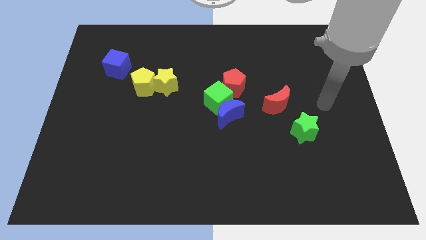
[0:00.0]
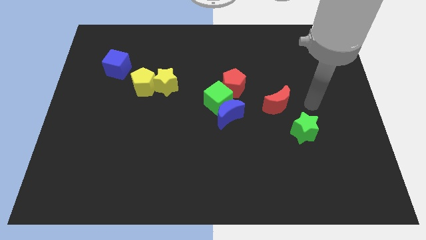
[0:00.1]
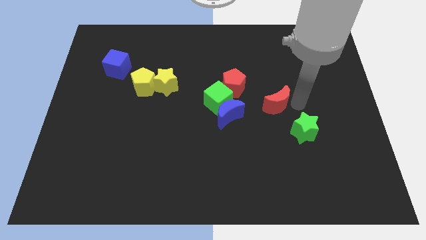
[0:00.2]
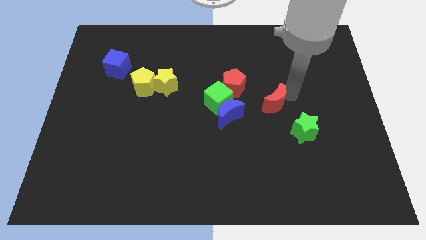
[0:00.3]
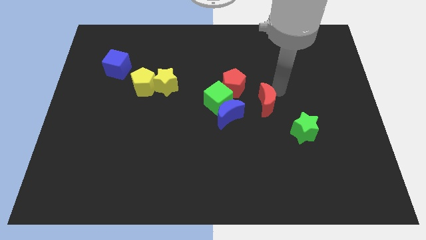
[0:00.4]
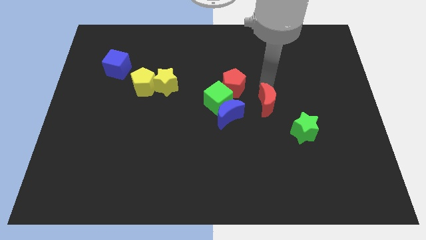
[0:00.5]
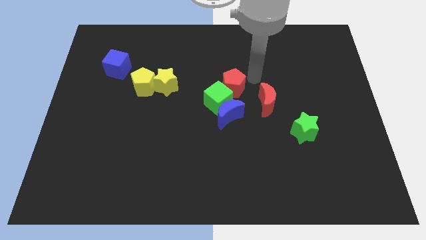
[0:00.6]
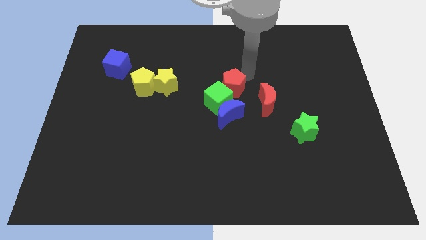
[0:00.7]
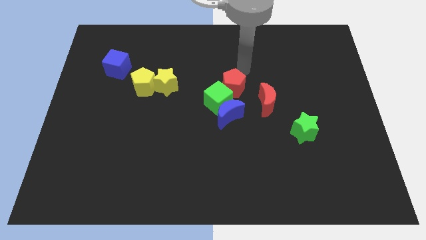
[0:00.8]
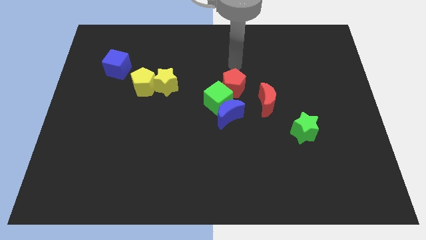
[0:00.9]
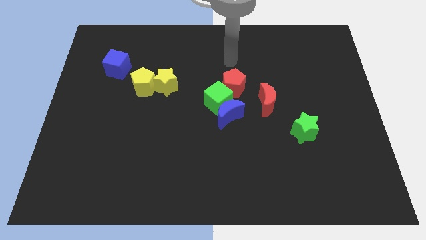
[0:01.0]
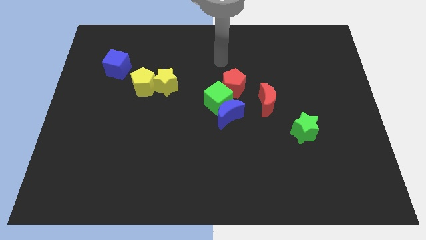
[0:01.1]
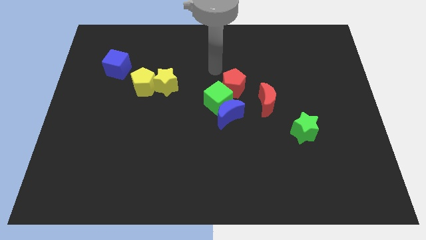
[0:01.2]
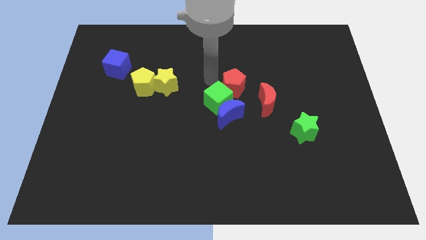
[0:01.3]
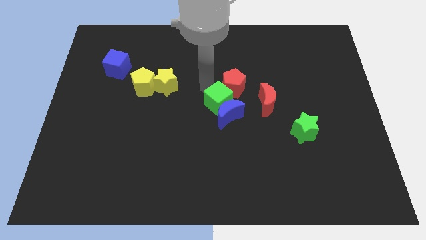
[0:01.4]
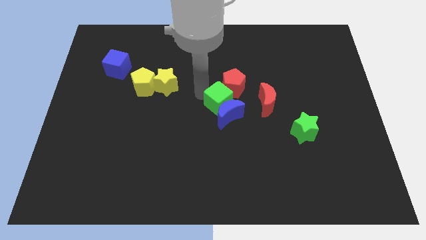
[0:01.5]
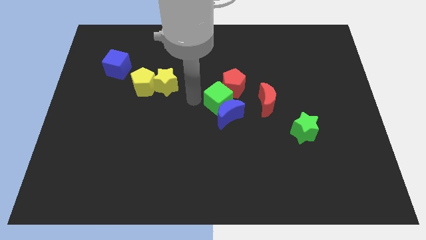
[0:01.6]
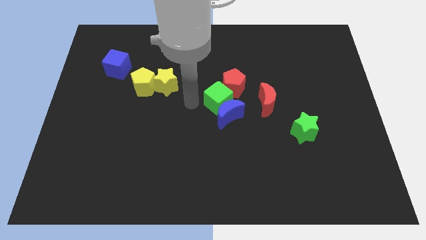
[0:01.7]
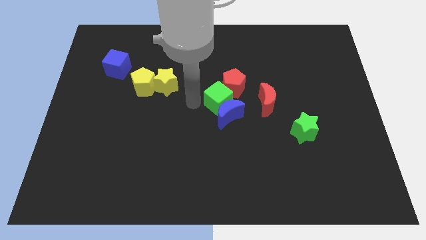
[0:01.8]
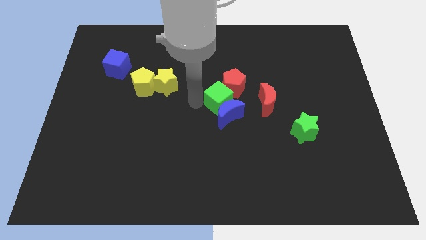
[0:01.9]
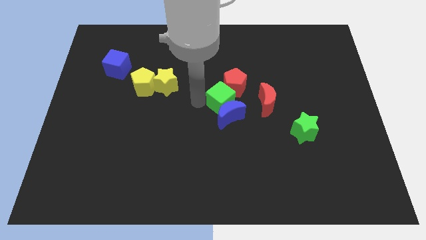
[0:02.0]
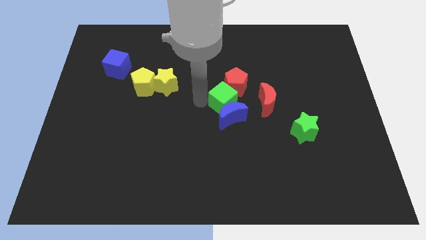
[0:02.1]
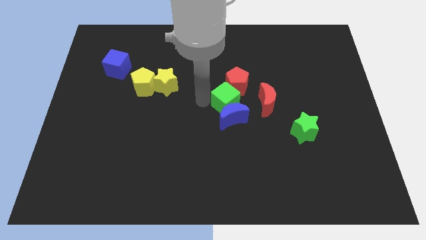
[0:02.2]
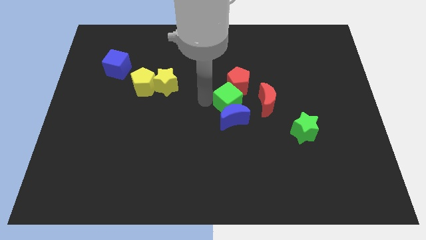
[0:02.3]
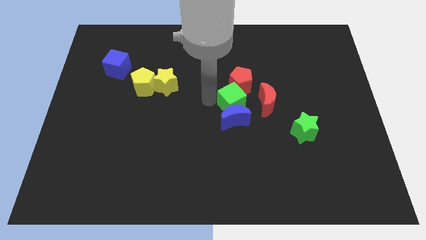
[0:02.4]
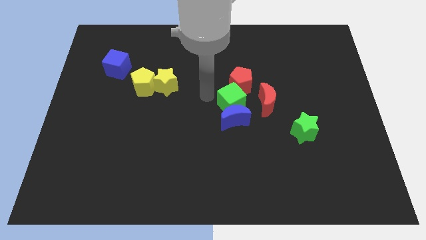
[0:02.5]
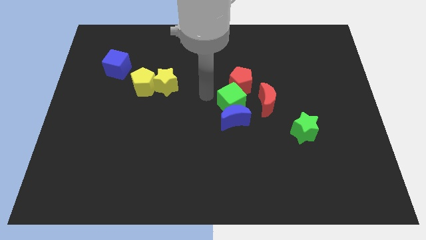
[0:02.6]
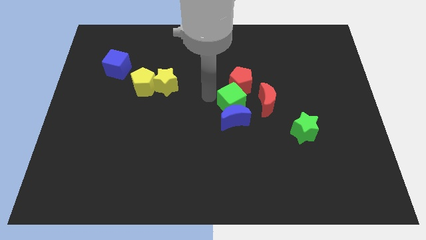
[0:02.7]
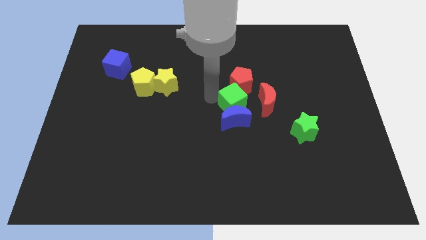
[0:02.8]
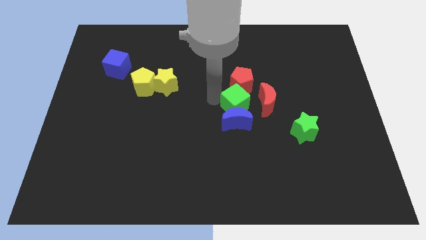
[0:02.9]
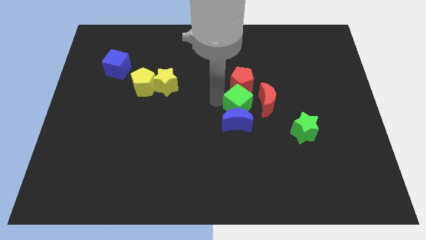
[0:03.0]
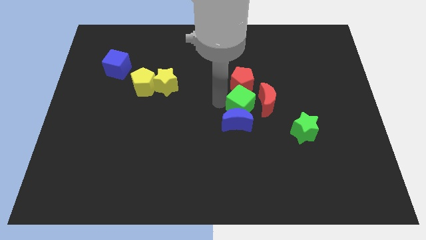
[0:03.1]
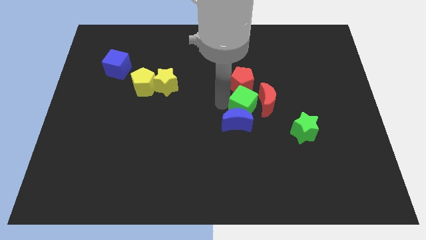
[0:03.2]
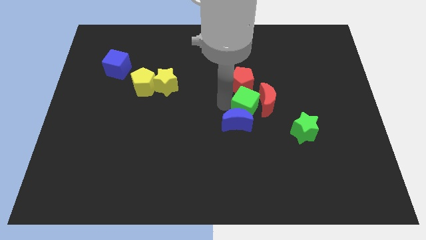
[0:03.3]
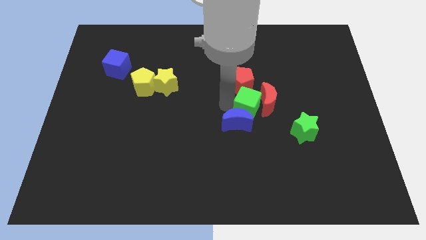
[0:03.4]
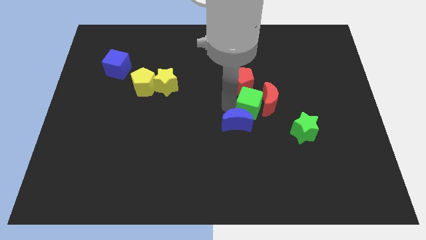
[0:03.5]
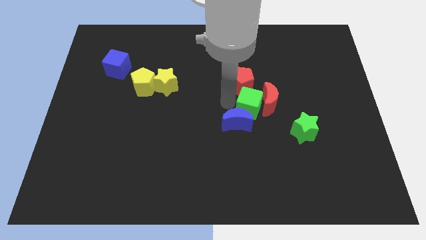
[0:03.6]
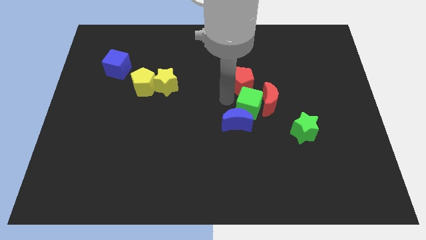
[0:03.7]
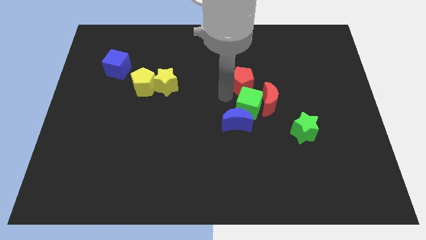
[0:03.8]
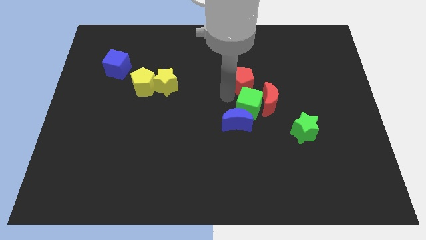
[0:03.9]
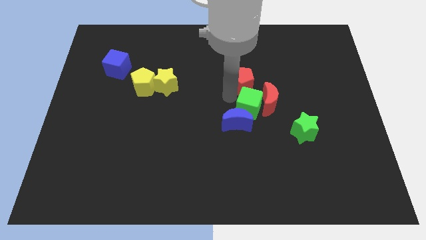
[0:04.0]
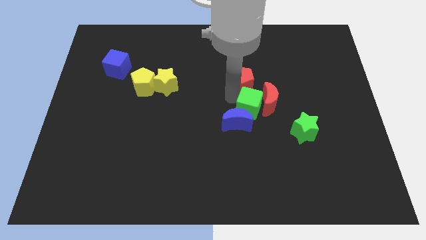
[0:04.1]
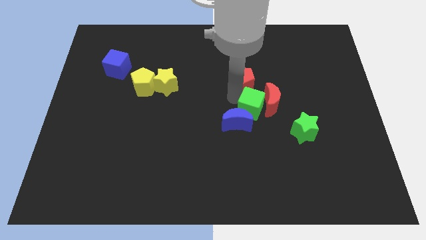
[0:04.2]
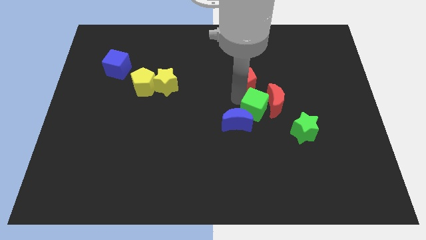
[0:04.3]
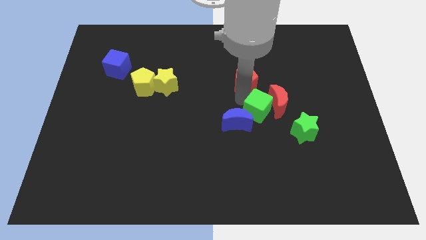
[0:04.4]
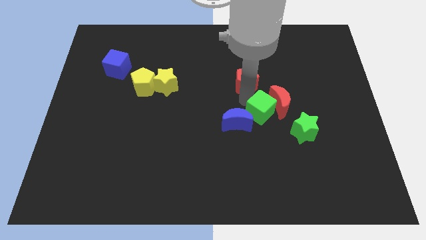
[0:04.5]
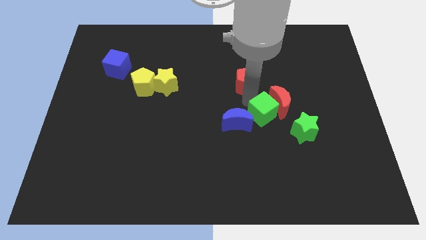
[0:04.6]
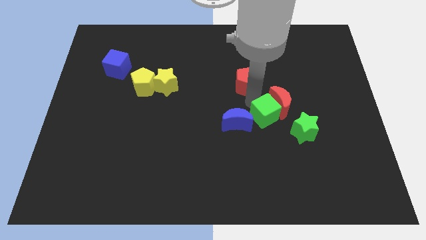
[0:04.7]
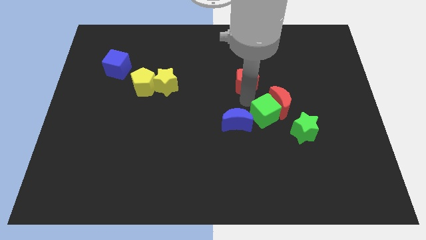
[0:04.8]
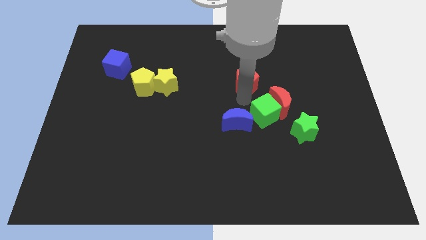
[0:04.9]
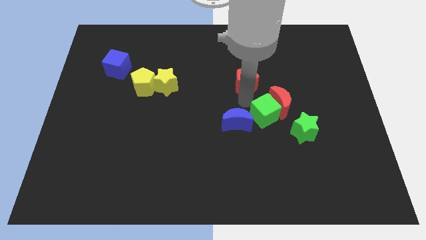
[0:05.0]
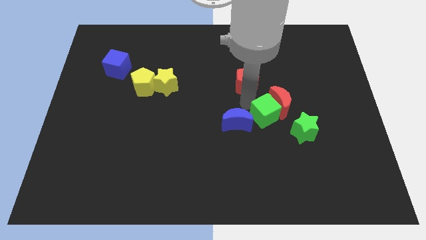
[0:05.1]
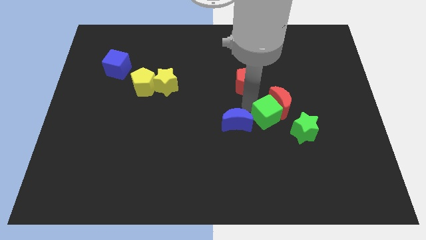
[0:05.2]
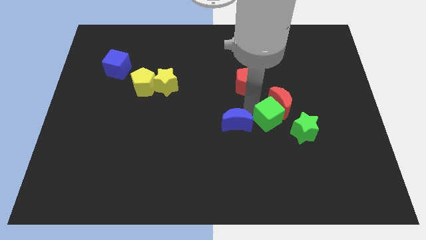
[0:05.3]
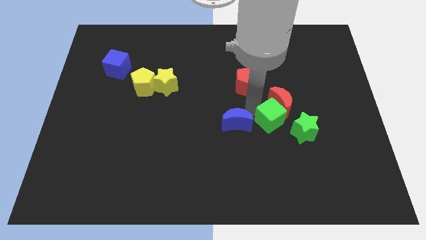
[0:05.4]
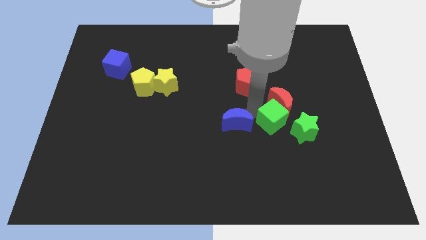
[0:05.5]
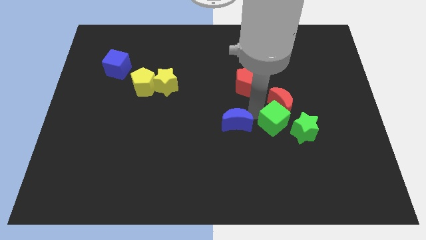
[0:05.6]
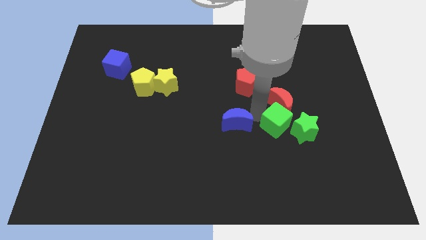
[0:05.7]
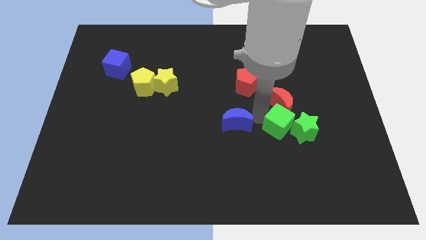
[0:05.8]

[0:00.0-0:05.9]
put the green cube to the green star

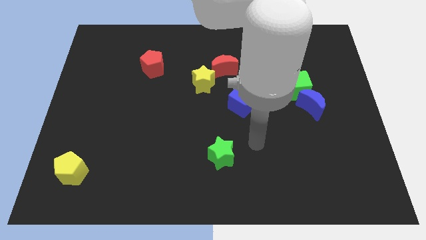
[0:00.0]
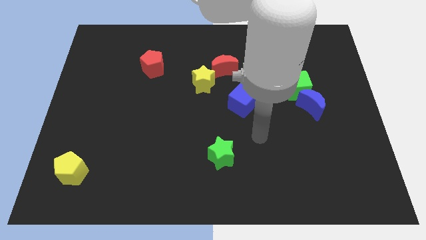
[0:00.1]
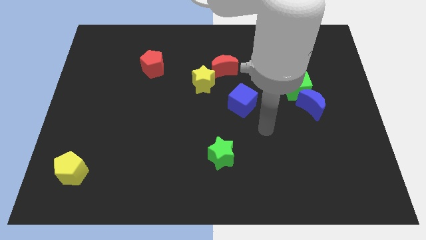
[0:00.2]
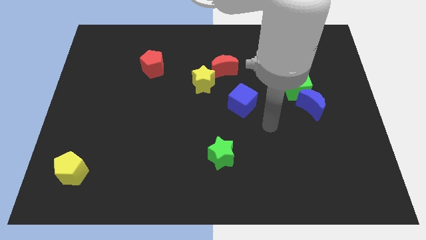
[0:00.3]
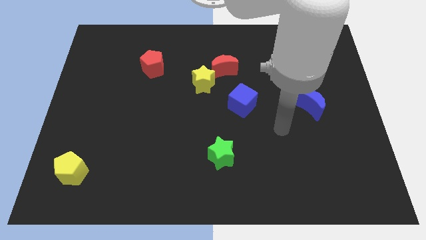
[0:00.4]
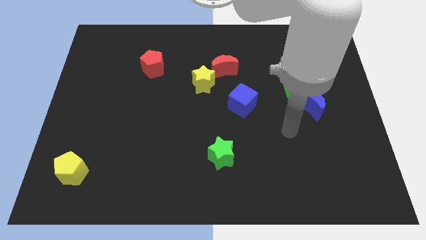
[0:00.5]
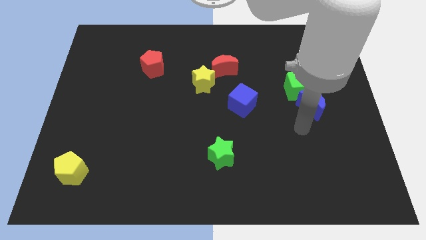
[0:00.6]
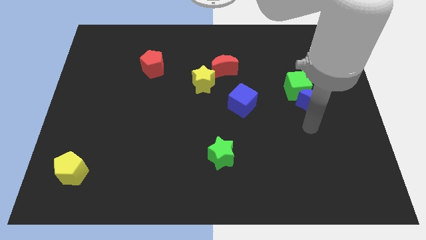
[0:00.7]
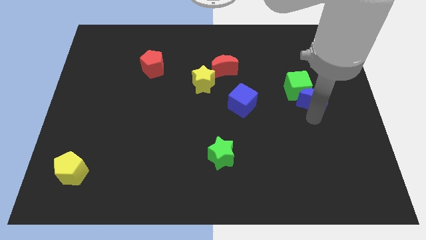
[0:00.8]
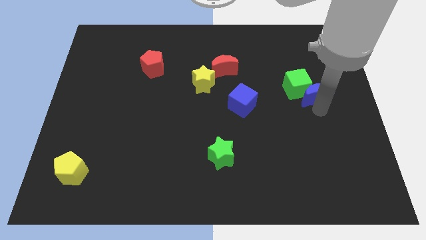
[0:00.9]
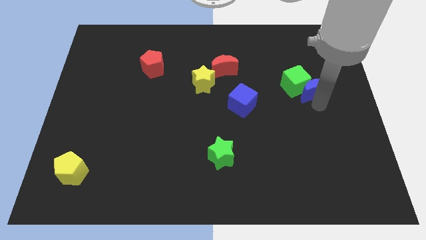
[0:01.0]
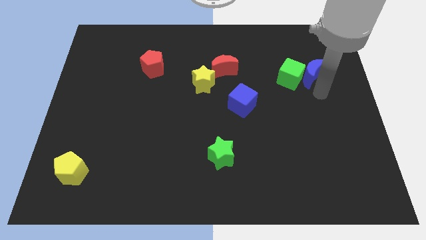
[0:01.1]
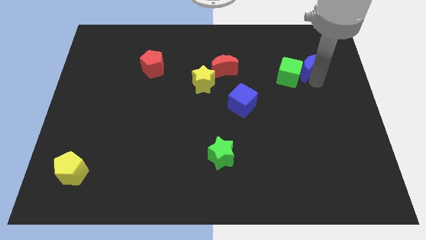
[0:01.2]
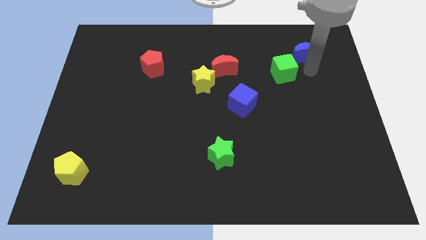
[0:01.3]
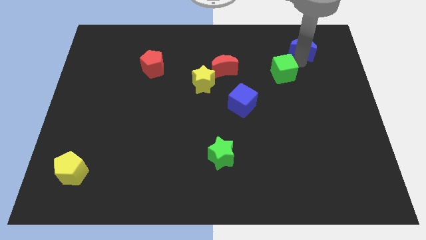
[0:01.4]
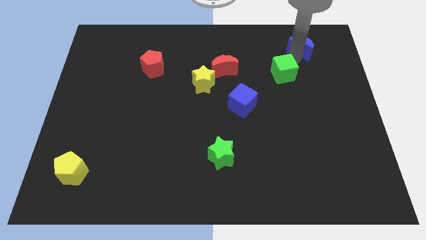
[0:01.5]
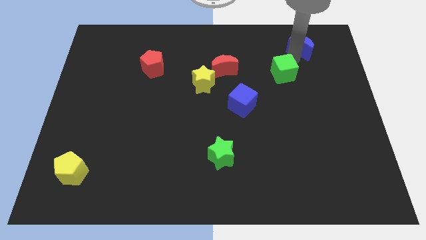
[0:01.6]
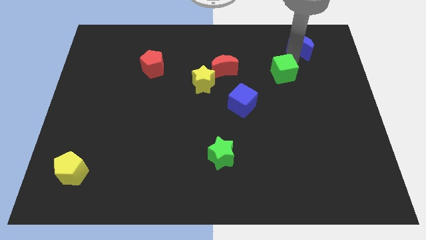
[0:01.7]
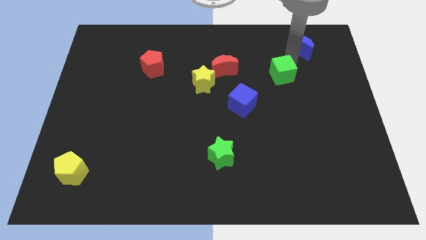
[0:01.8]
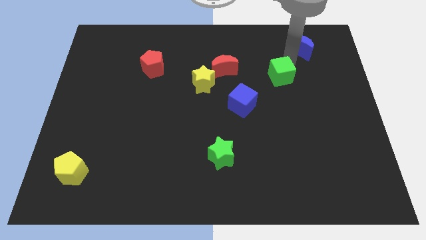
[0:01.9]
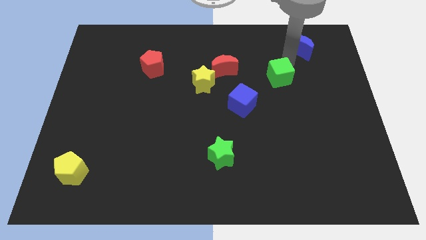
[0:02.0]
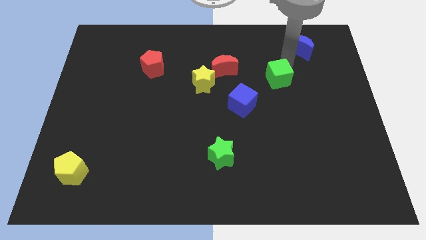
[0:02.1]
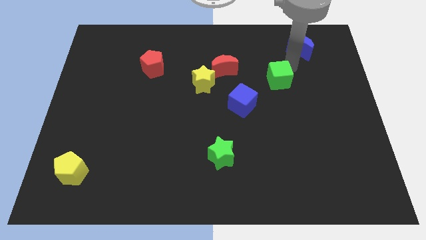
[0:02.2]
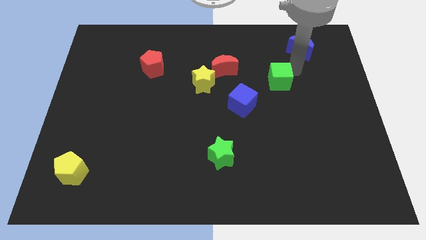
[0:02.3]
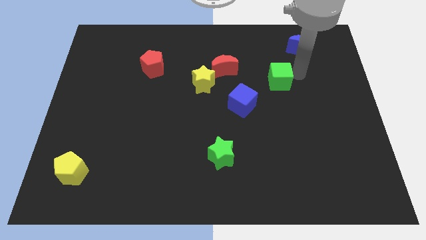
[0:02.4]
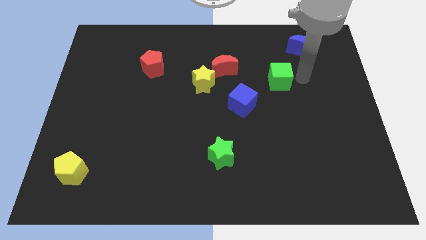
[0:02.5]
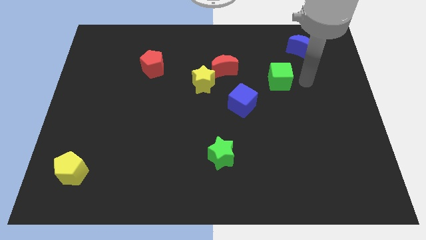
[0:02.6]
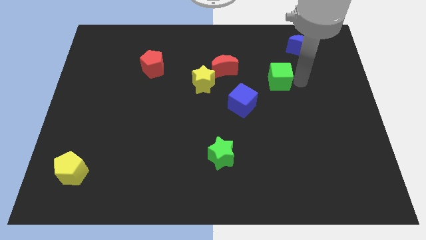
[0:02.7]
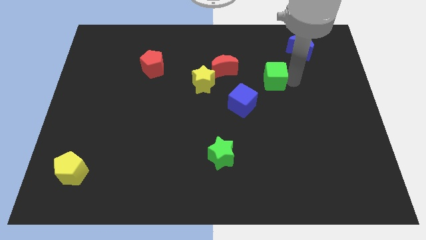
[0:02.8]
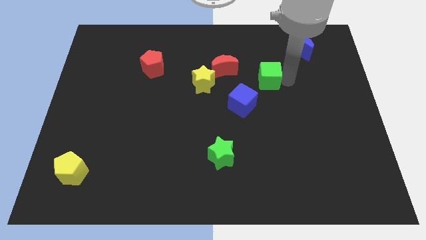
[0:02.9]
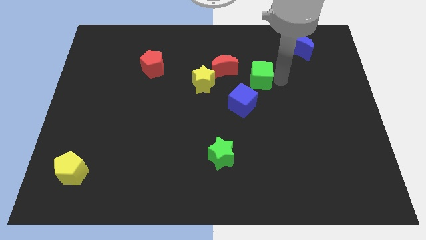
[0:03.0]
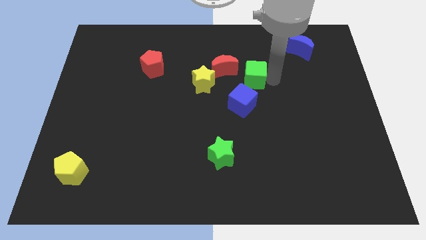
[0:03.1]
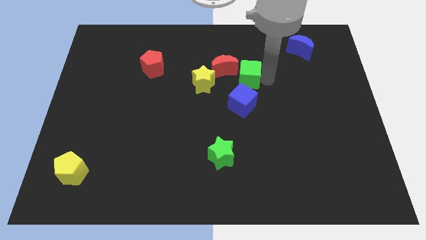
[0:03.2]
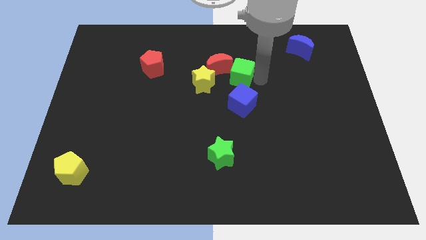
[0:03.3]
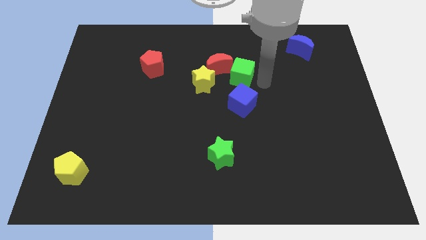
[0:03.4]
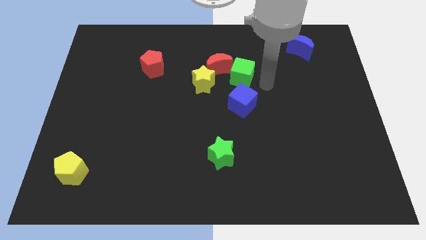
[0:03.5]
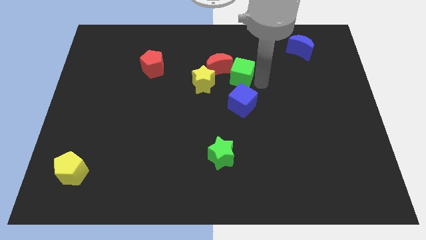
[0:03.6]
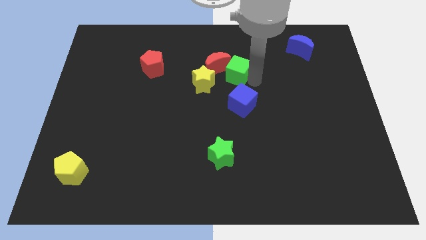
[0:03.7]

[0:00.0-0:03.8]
push the green cube next to the red moon
